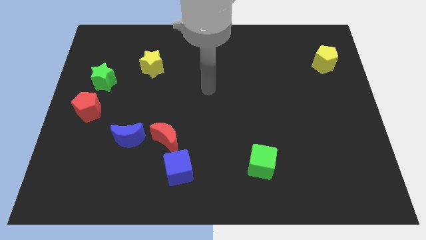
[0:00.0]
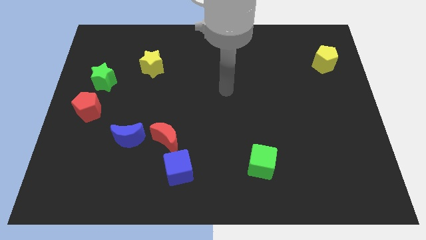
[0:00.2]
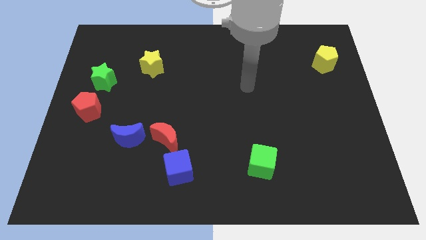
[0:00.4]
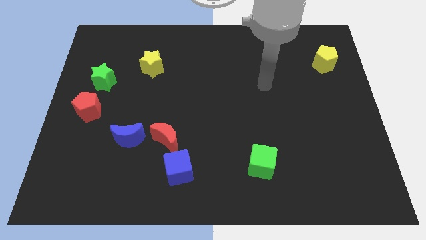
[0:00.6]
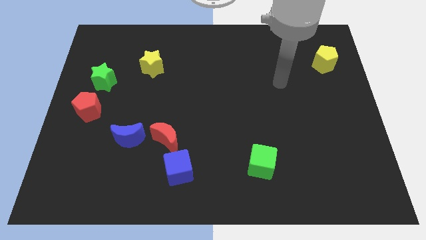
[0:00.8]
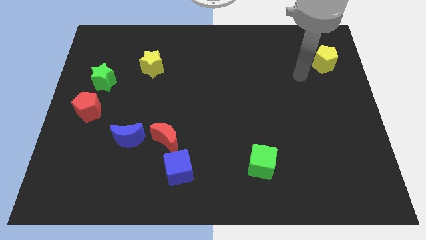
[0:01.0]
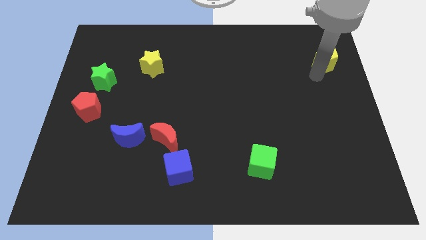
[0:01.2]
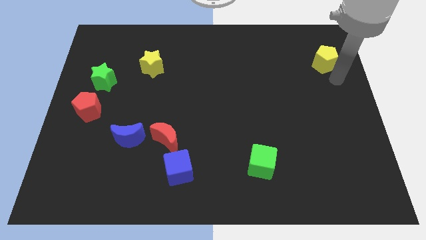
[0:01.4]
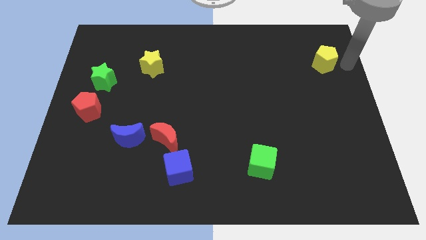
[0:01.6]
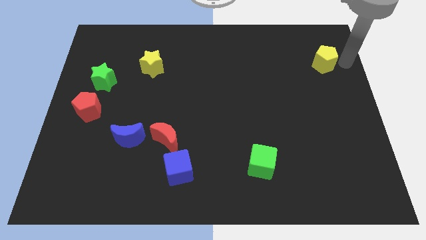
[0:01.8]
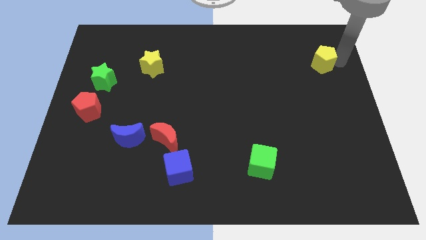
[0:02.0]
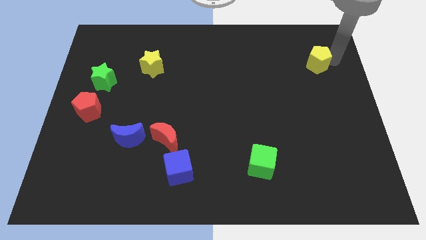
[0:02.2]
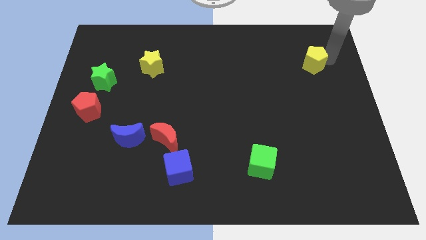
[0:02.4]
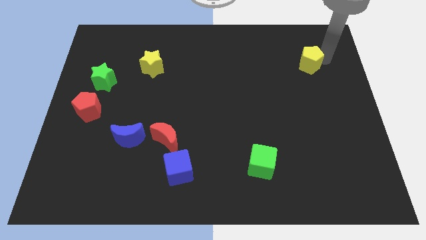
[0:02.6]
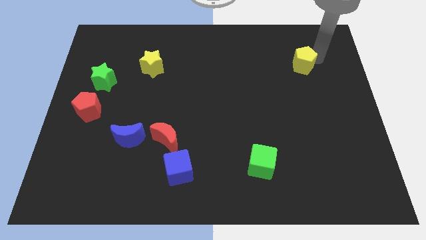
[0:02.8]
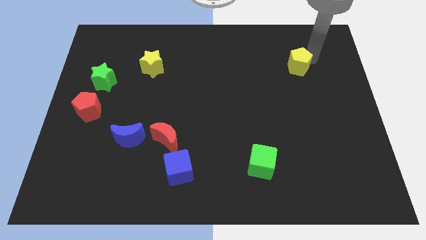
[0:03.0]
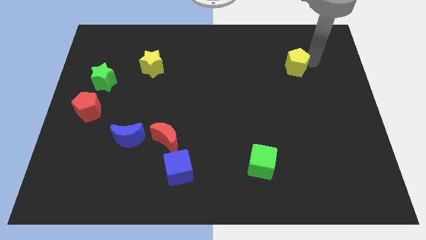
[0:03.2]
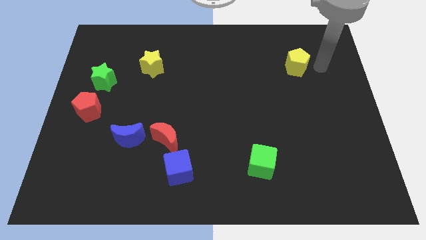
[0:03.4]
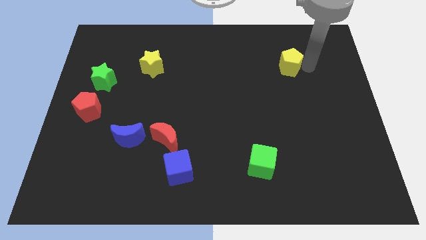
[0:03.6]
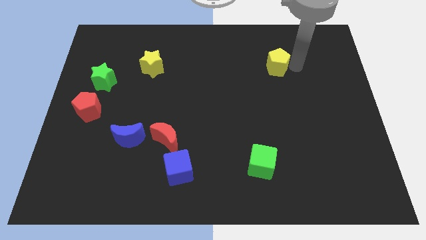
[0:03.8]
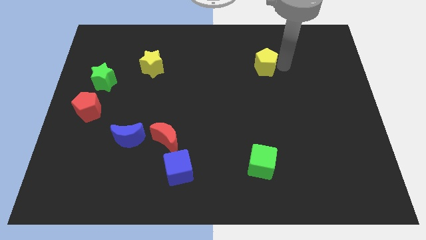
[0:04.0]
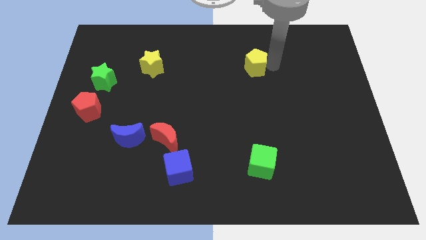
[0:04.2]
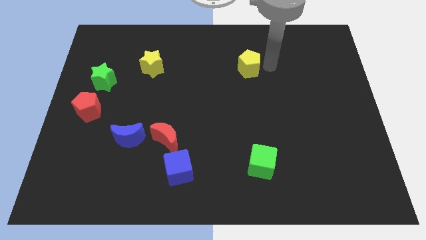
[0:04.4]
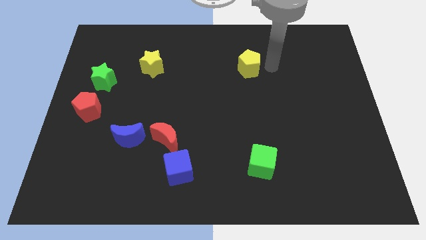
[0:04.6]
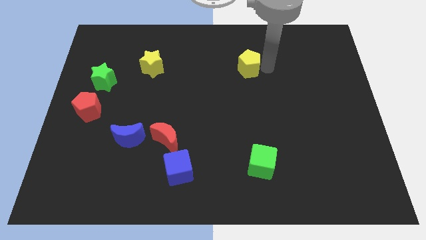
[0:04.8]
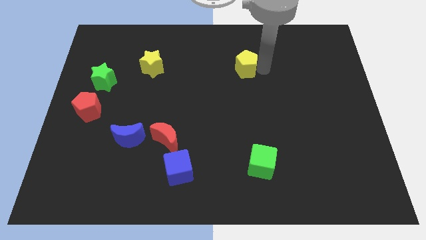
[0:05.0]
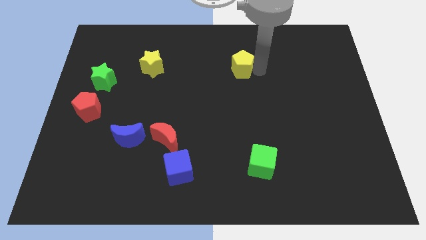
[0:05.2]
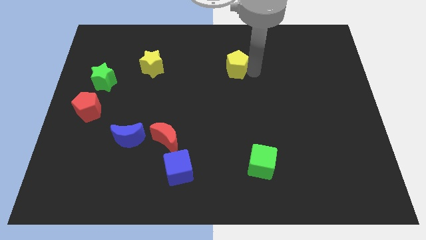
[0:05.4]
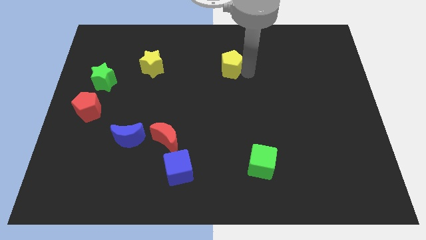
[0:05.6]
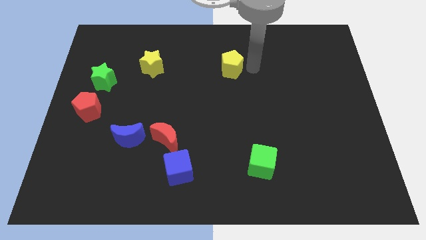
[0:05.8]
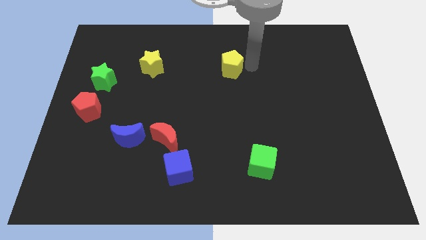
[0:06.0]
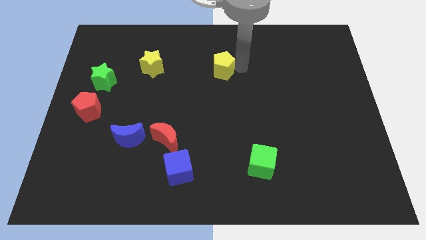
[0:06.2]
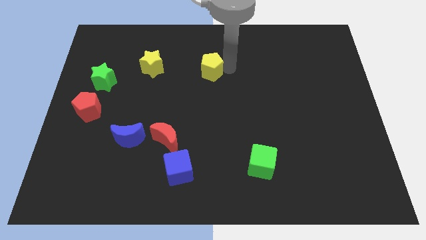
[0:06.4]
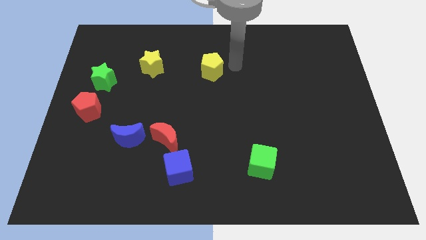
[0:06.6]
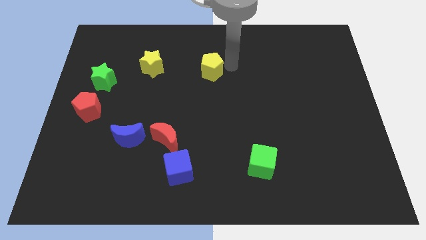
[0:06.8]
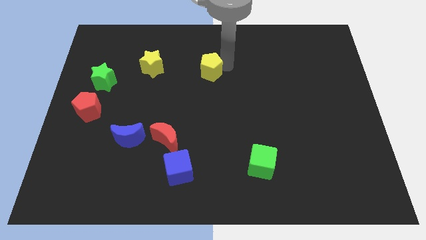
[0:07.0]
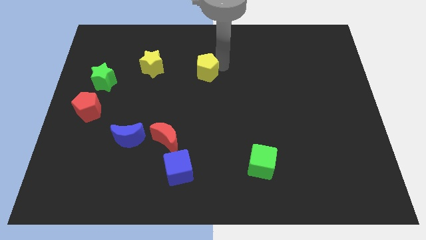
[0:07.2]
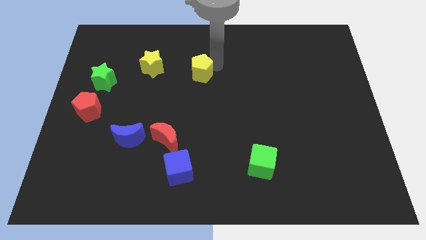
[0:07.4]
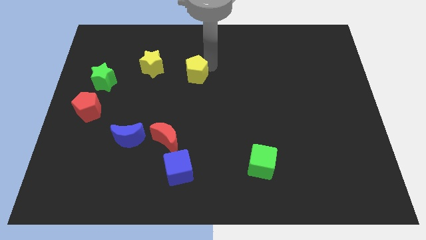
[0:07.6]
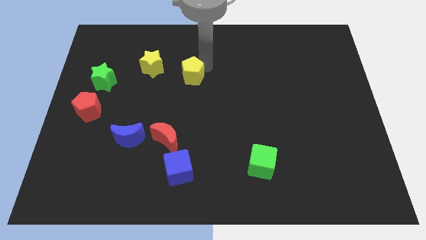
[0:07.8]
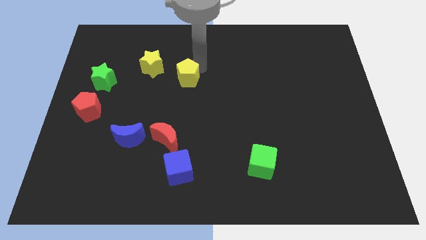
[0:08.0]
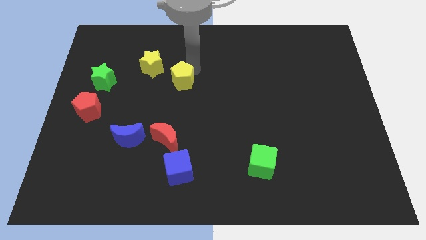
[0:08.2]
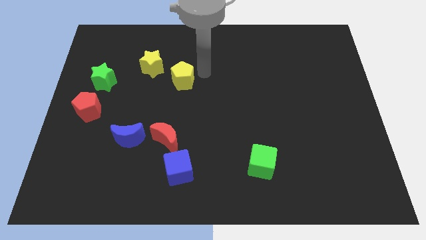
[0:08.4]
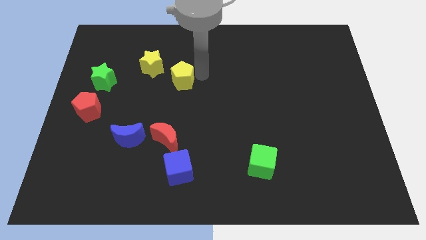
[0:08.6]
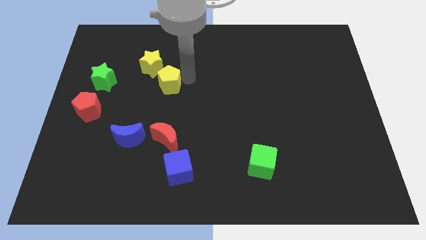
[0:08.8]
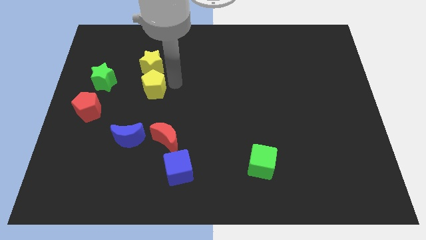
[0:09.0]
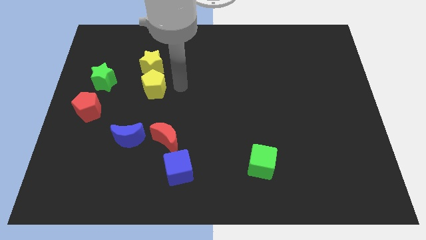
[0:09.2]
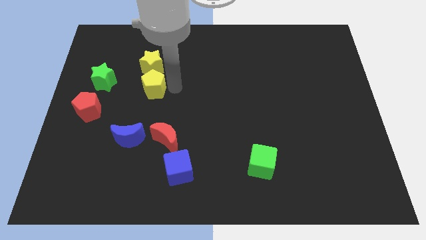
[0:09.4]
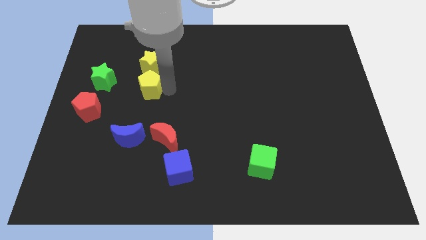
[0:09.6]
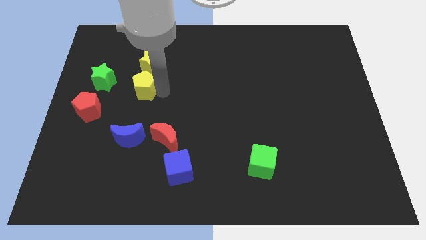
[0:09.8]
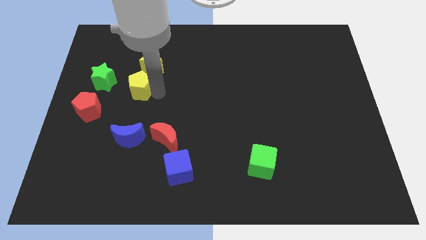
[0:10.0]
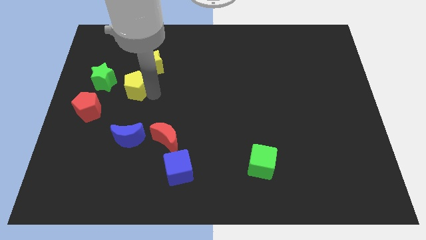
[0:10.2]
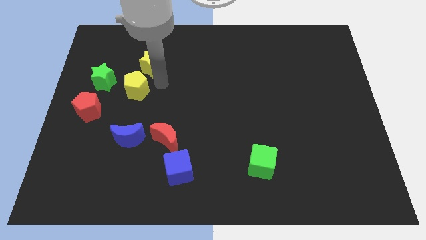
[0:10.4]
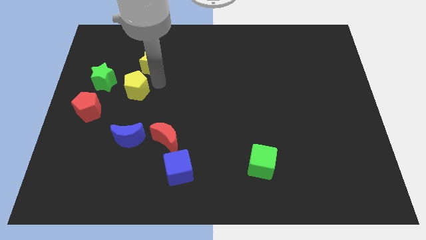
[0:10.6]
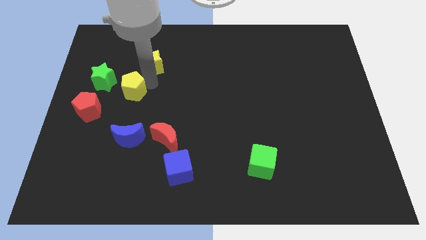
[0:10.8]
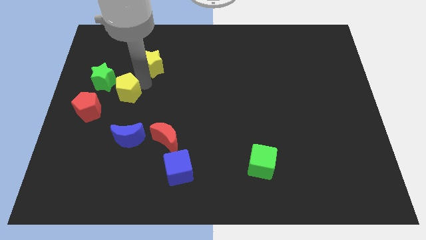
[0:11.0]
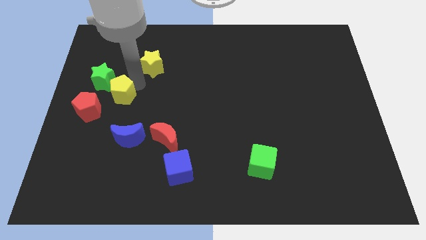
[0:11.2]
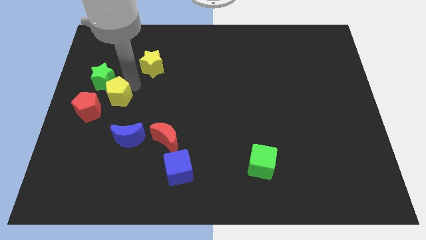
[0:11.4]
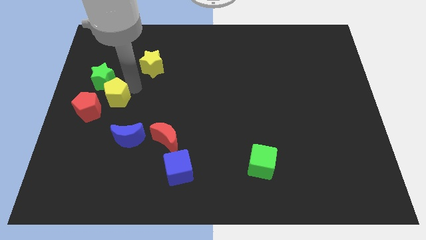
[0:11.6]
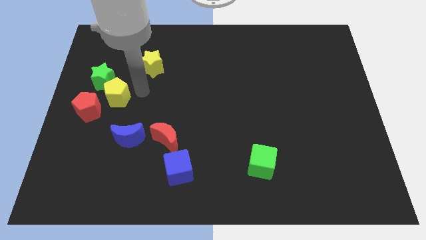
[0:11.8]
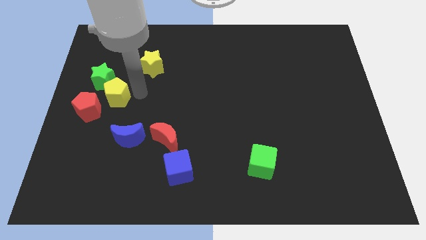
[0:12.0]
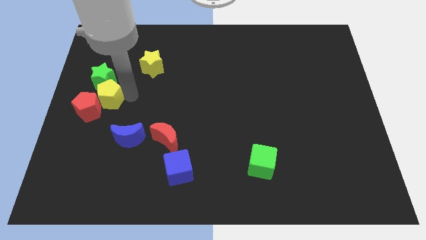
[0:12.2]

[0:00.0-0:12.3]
move the yellow pentagon to the center left

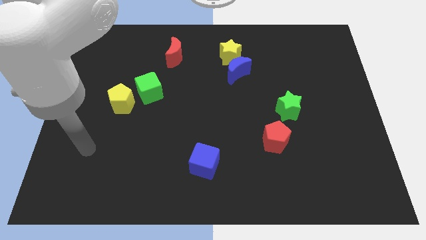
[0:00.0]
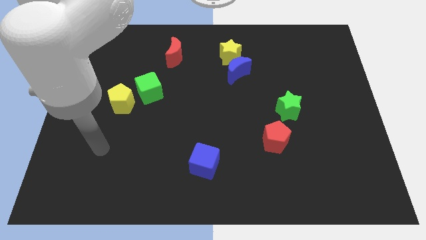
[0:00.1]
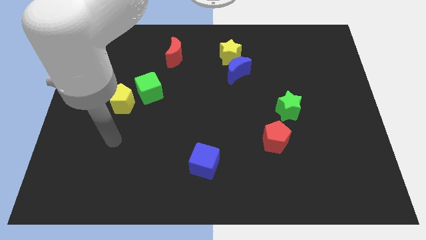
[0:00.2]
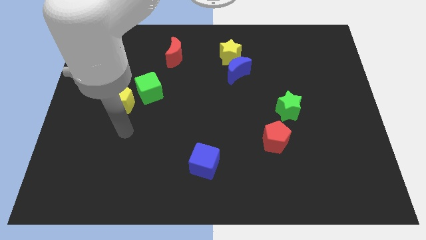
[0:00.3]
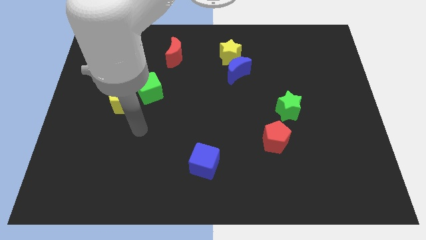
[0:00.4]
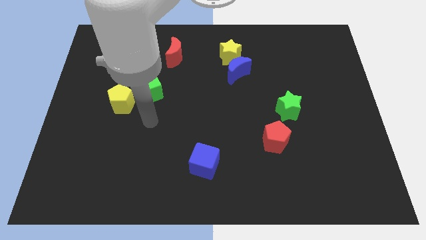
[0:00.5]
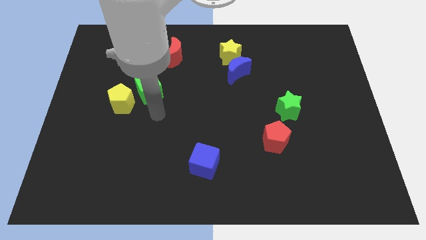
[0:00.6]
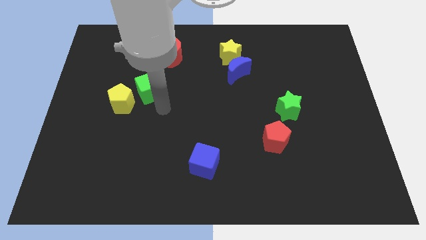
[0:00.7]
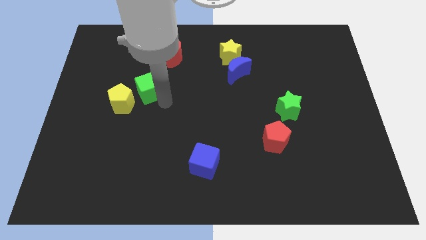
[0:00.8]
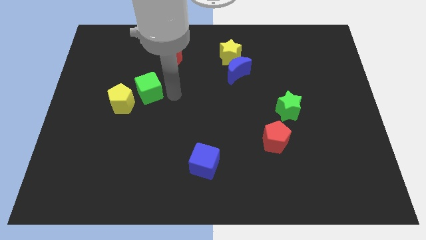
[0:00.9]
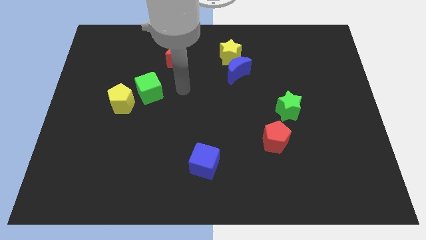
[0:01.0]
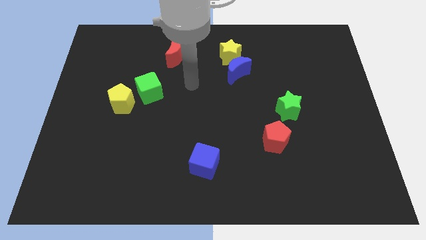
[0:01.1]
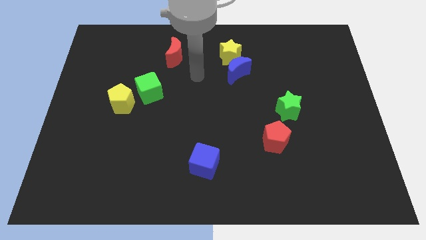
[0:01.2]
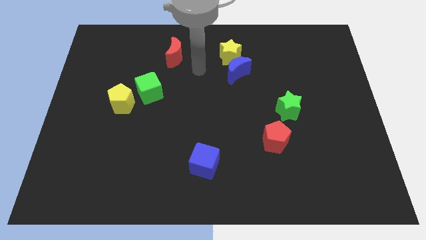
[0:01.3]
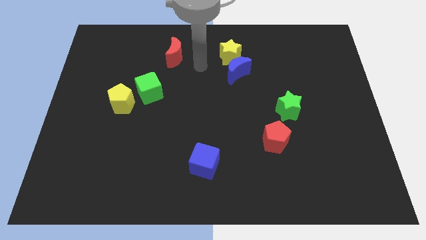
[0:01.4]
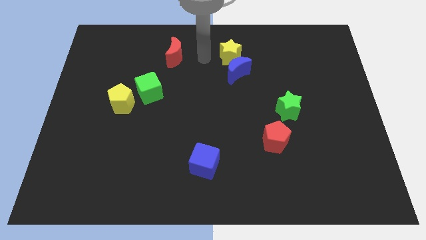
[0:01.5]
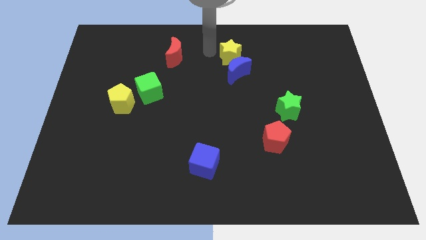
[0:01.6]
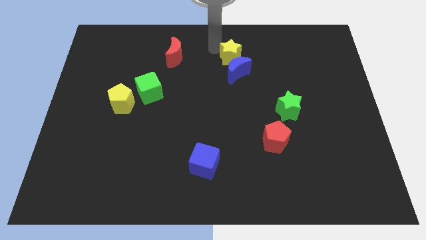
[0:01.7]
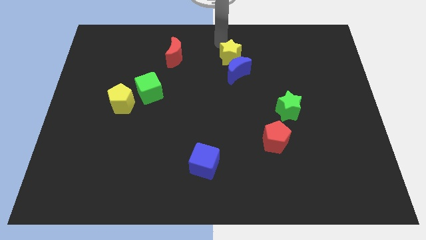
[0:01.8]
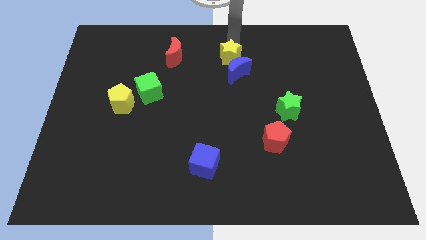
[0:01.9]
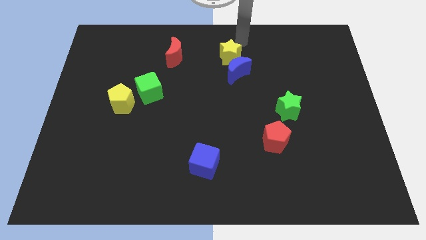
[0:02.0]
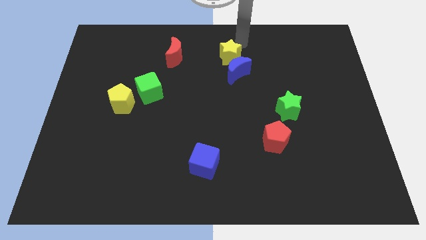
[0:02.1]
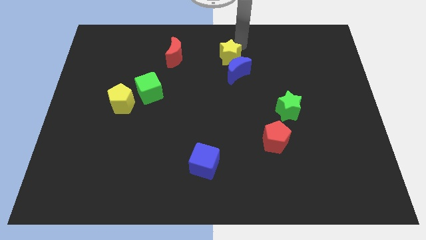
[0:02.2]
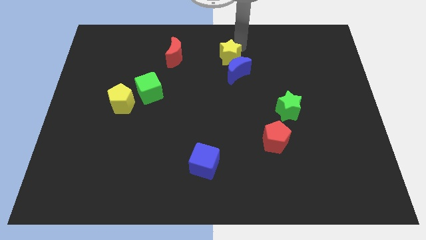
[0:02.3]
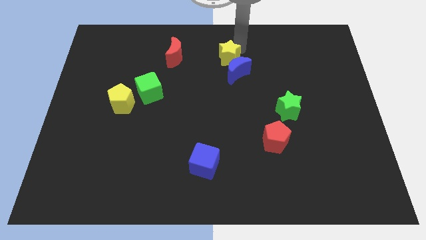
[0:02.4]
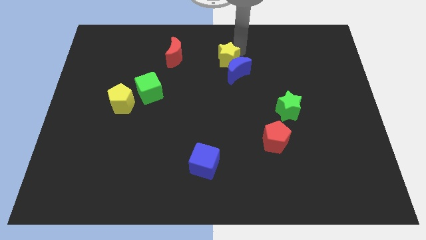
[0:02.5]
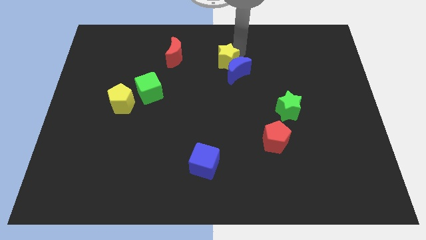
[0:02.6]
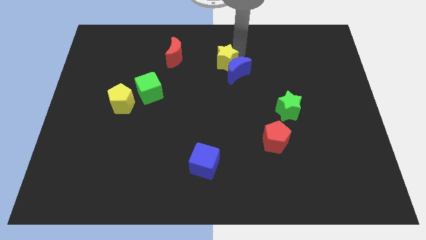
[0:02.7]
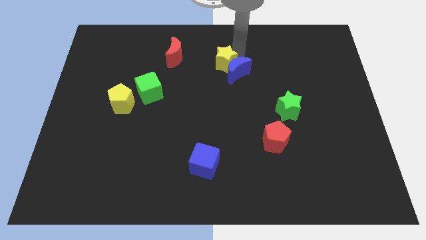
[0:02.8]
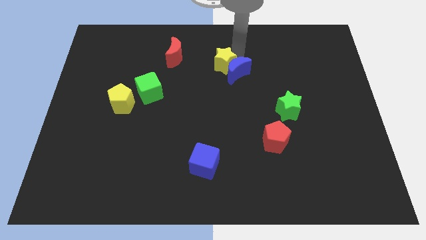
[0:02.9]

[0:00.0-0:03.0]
push the yellow star to the center
